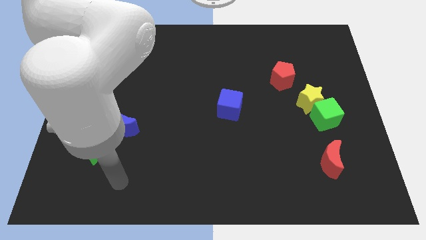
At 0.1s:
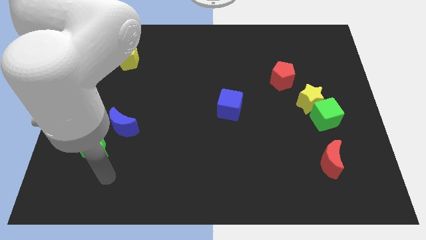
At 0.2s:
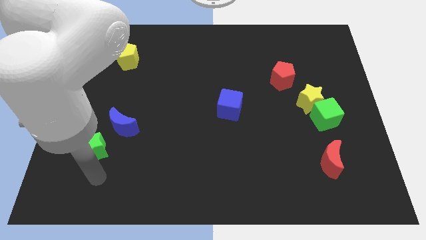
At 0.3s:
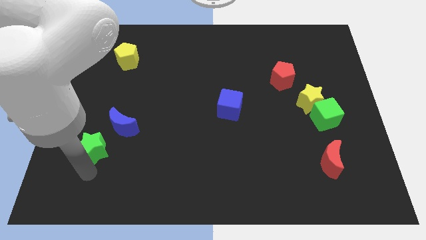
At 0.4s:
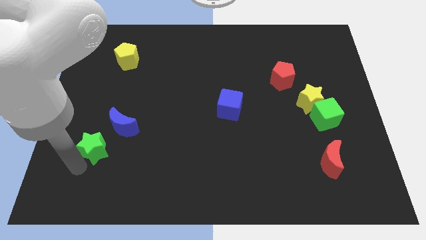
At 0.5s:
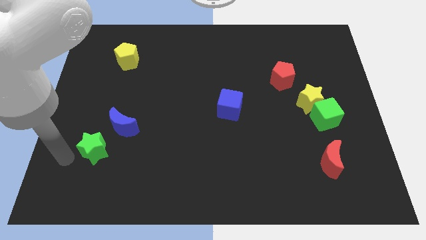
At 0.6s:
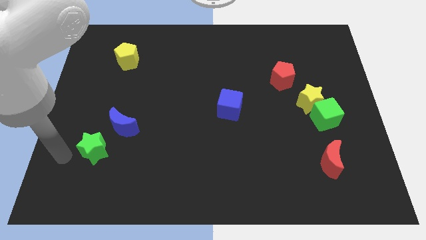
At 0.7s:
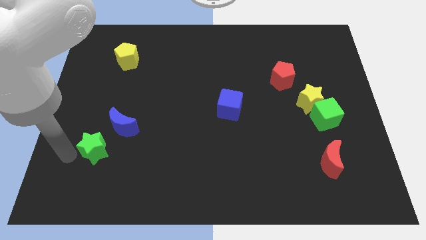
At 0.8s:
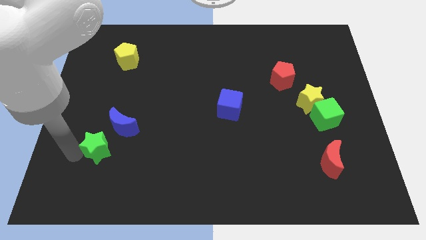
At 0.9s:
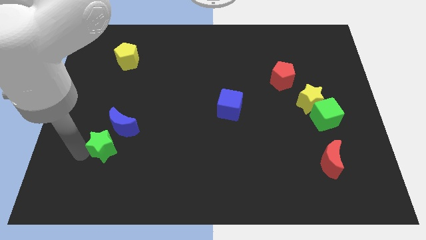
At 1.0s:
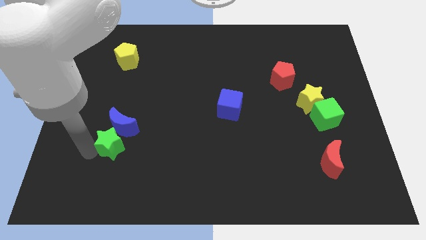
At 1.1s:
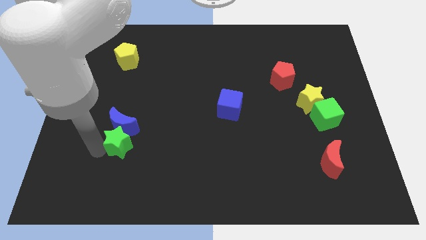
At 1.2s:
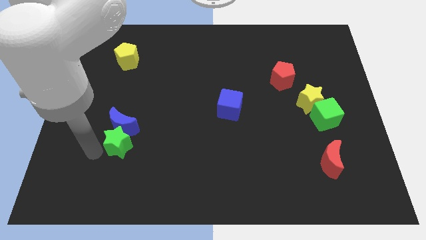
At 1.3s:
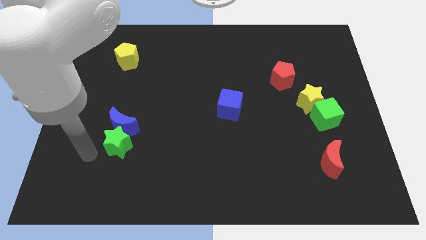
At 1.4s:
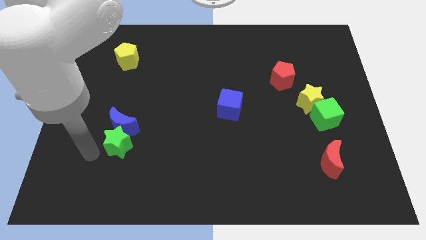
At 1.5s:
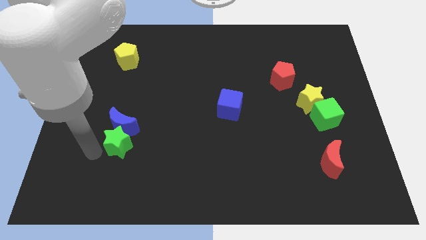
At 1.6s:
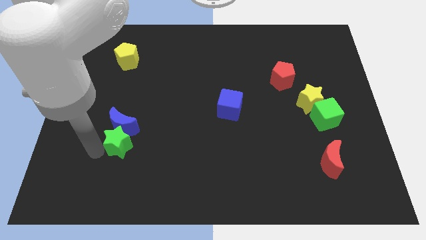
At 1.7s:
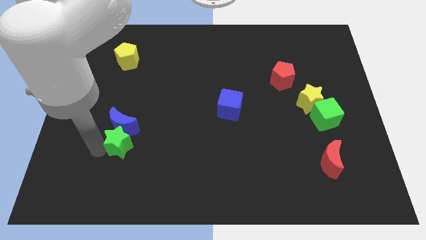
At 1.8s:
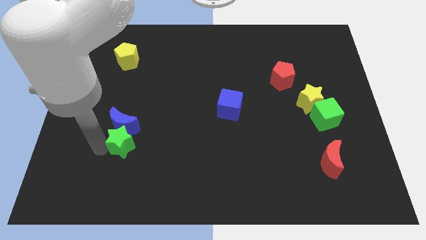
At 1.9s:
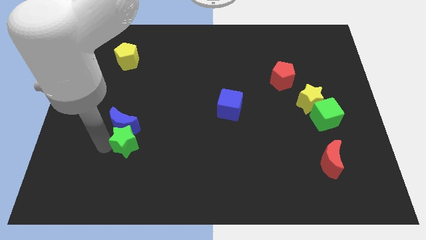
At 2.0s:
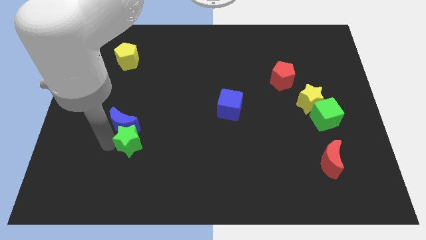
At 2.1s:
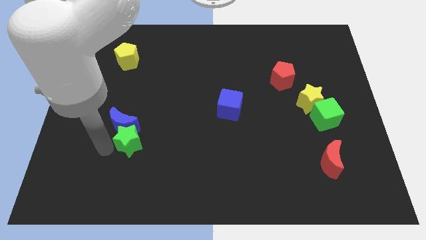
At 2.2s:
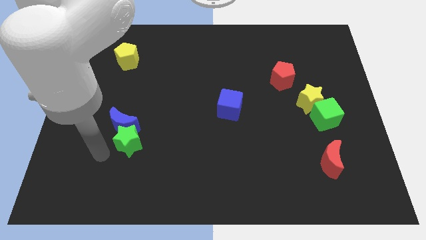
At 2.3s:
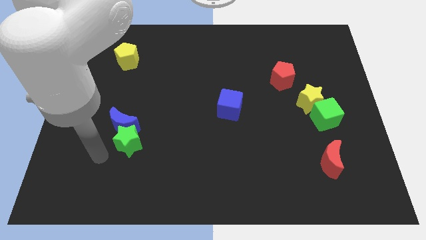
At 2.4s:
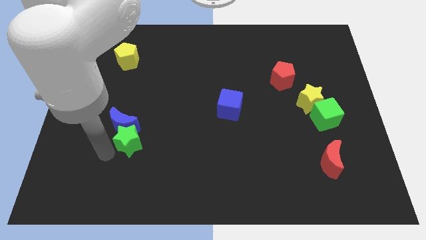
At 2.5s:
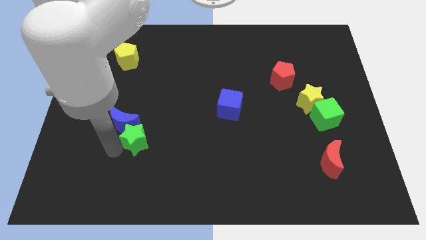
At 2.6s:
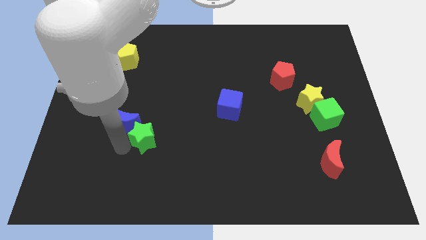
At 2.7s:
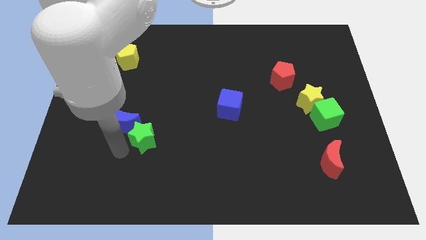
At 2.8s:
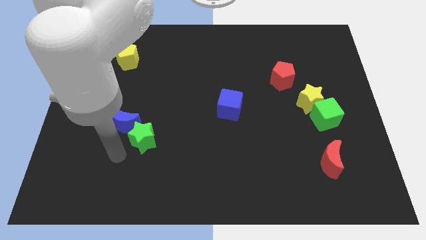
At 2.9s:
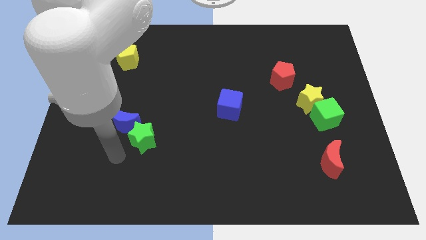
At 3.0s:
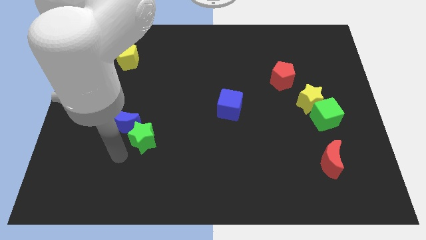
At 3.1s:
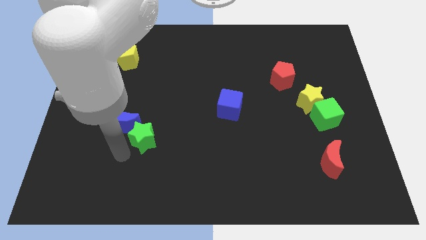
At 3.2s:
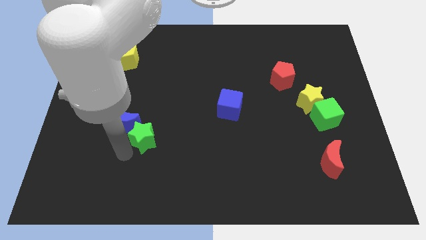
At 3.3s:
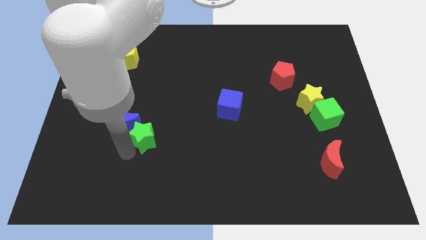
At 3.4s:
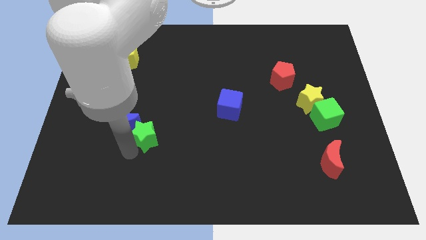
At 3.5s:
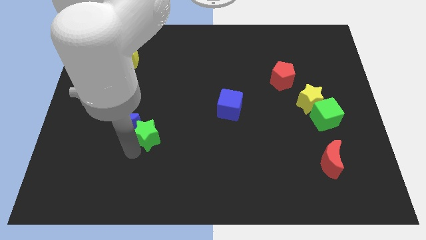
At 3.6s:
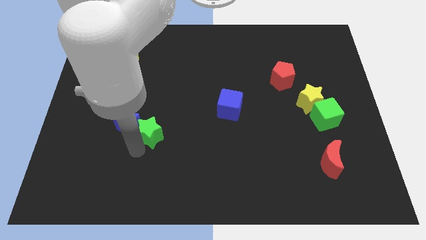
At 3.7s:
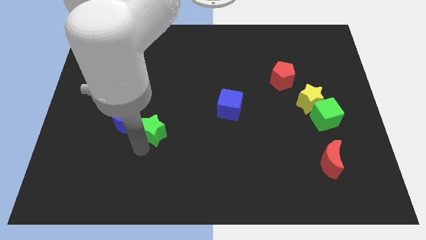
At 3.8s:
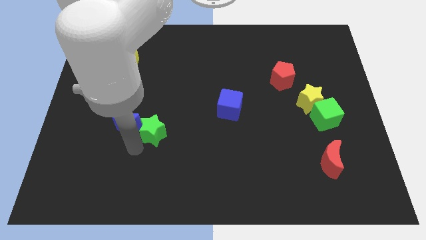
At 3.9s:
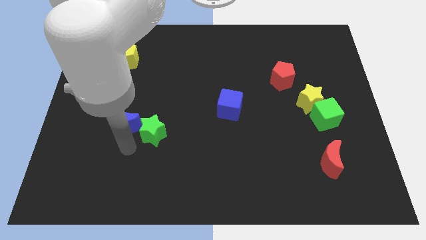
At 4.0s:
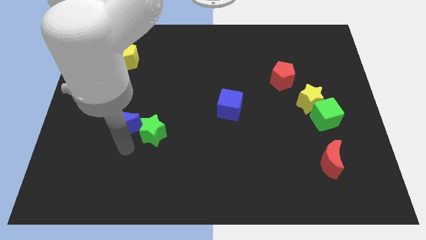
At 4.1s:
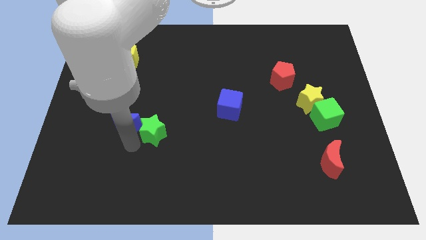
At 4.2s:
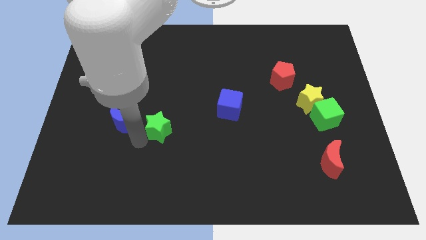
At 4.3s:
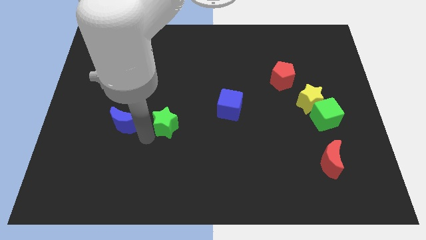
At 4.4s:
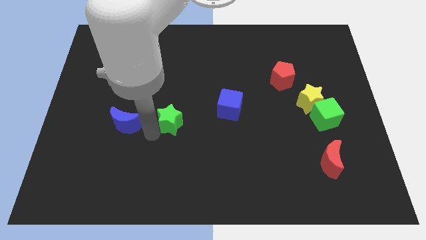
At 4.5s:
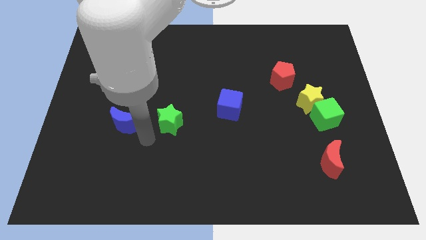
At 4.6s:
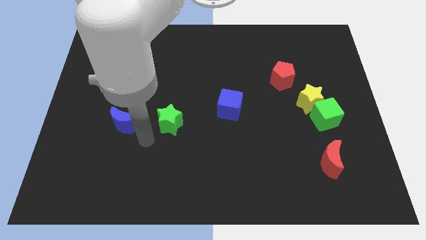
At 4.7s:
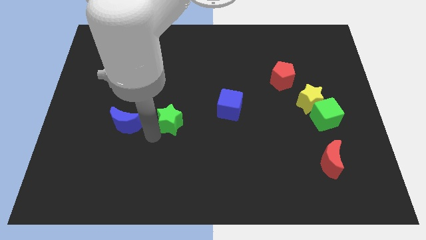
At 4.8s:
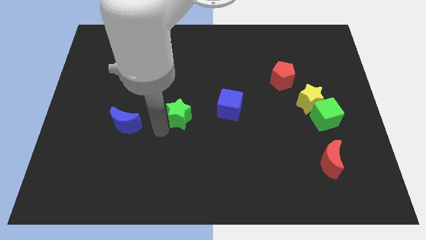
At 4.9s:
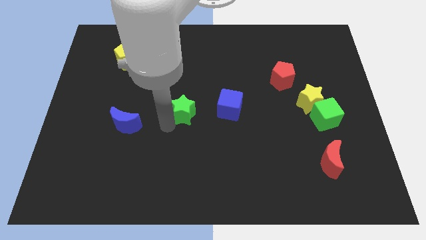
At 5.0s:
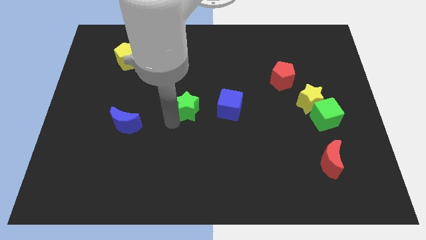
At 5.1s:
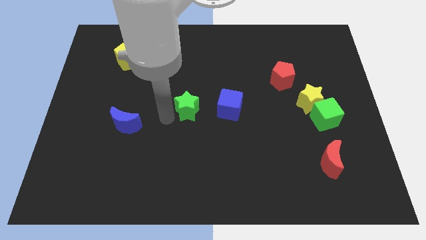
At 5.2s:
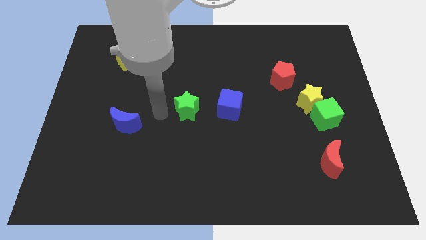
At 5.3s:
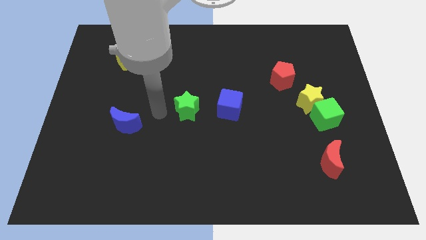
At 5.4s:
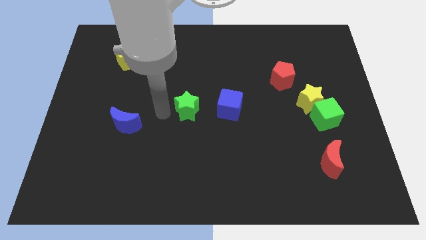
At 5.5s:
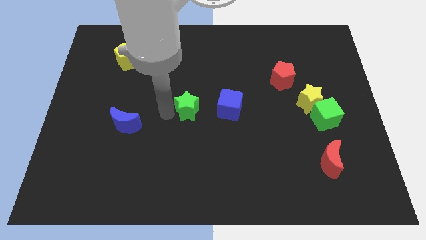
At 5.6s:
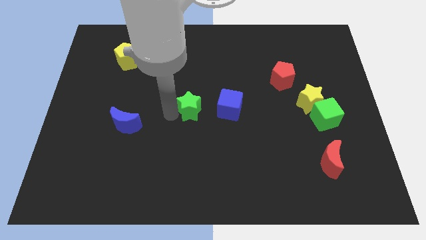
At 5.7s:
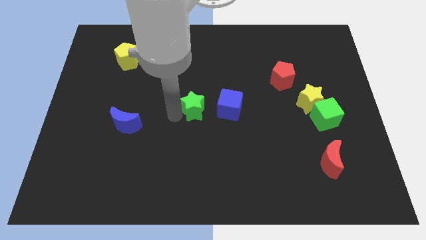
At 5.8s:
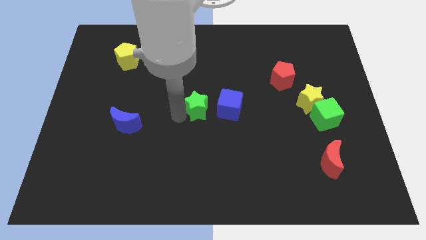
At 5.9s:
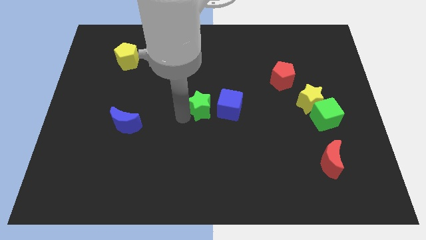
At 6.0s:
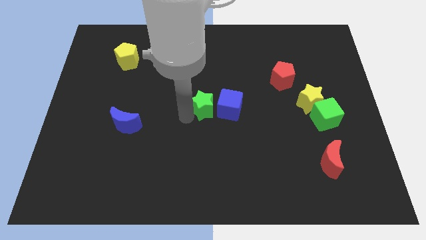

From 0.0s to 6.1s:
push the green star towards the blue cube

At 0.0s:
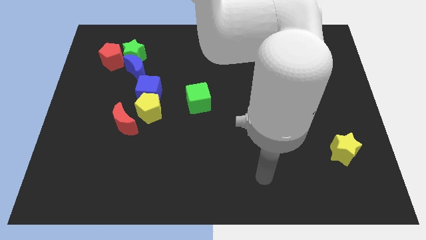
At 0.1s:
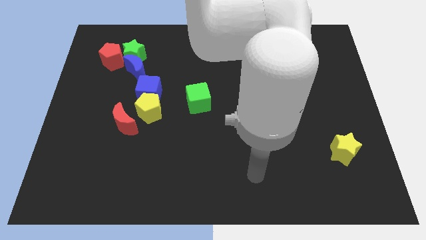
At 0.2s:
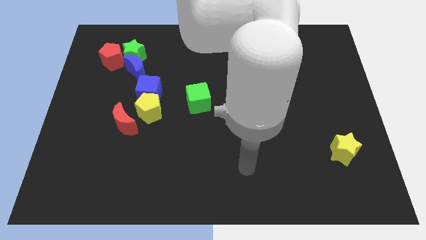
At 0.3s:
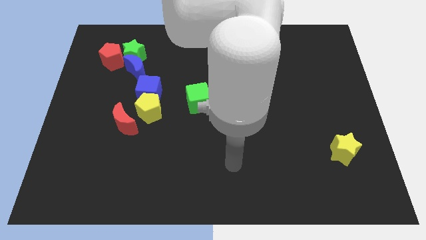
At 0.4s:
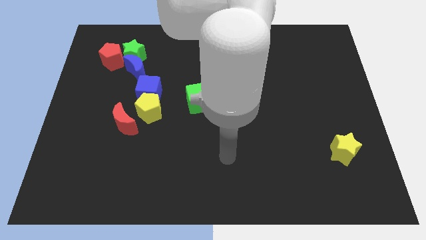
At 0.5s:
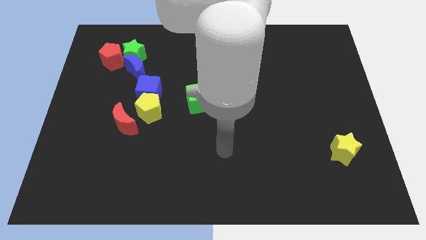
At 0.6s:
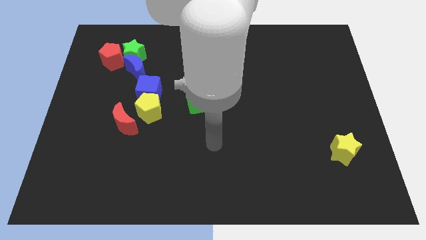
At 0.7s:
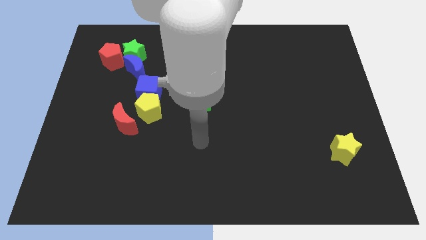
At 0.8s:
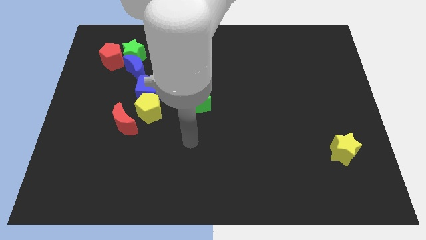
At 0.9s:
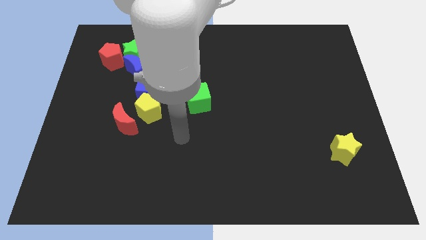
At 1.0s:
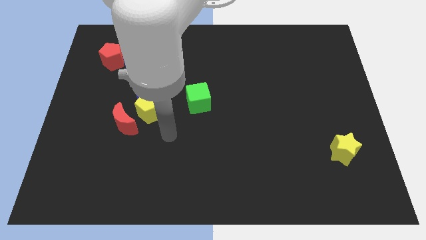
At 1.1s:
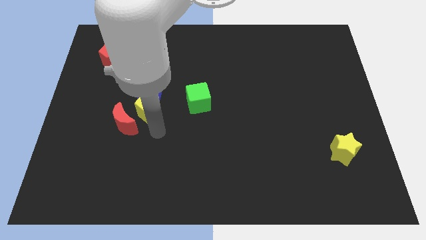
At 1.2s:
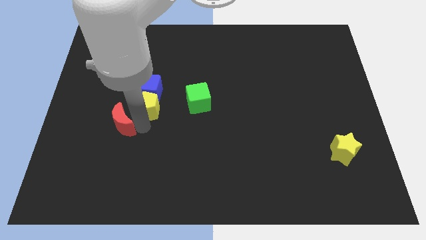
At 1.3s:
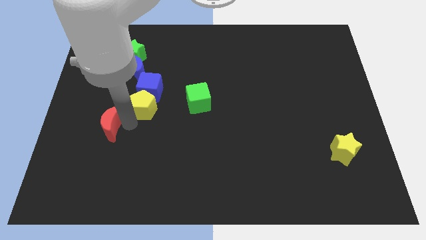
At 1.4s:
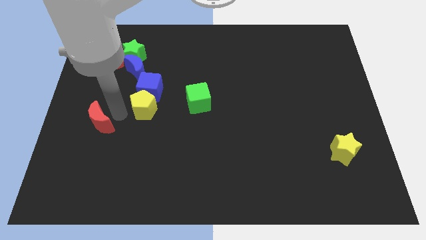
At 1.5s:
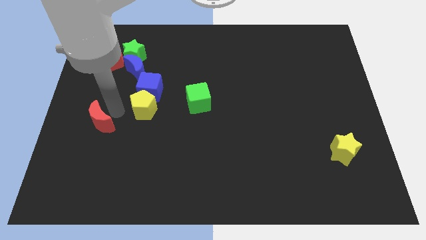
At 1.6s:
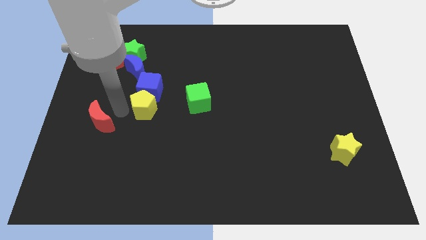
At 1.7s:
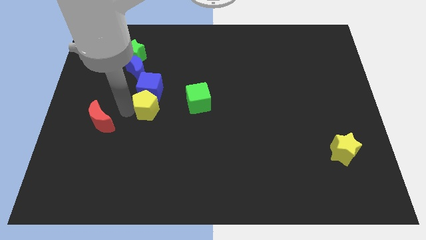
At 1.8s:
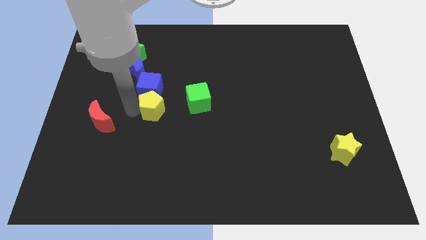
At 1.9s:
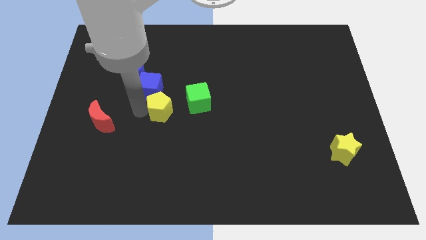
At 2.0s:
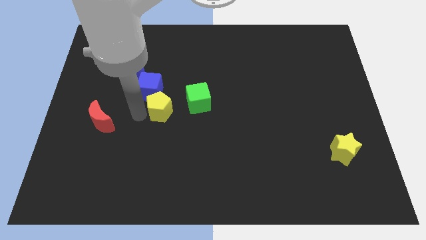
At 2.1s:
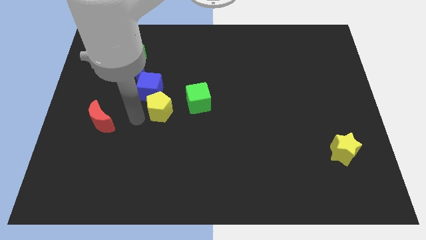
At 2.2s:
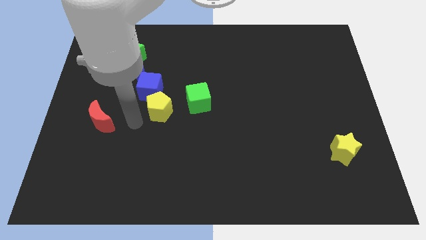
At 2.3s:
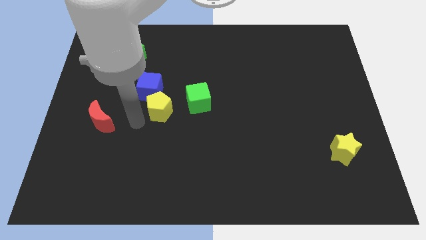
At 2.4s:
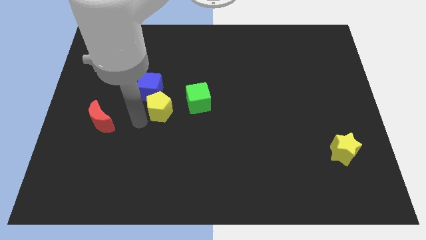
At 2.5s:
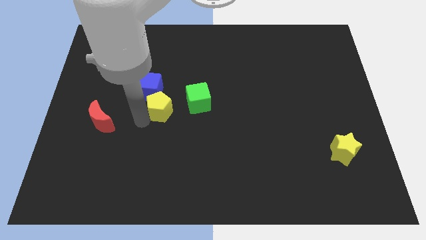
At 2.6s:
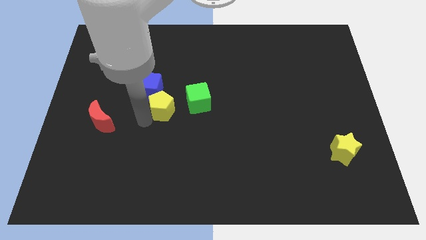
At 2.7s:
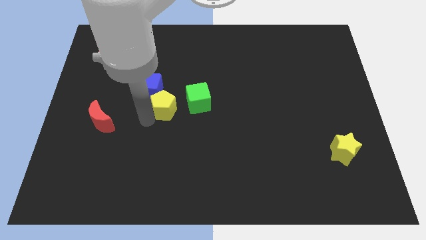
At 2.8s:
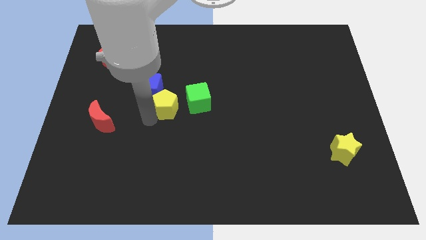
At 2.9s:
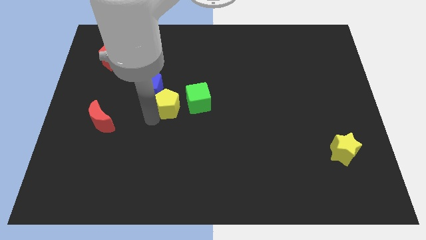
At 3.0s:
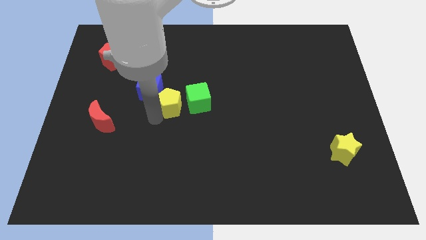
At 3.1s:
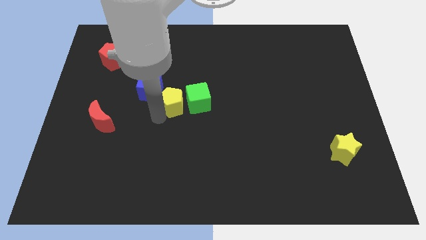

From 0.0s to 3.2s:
move the yellow pentagon towards the green cube
